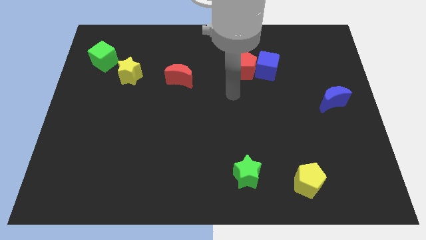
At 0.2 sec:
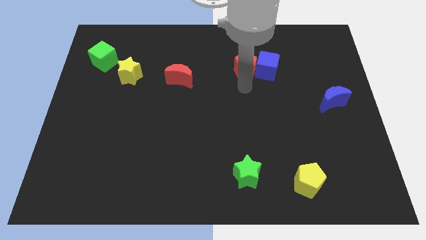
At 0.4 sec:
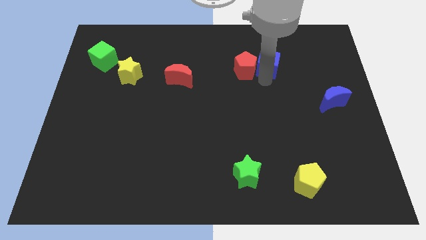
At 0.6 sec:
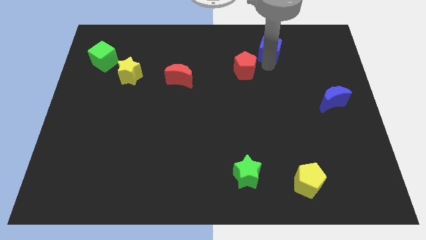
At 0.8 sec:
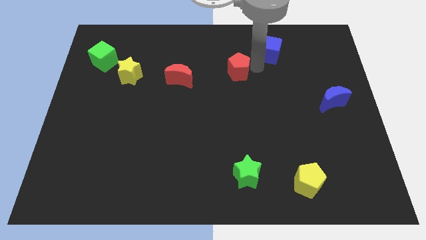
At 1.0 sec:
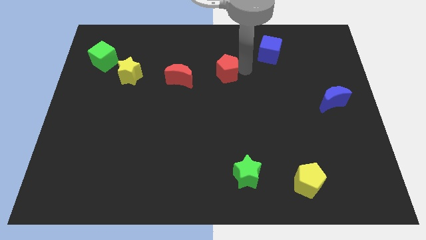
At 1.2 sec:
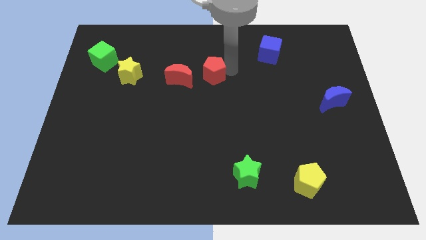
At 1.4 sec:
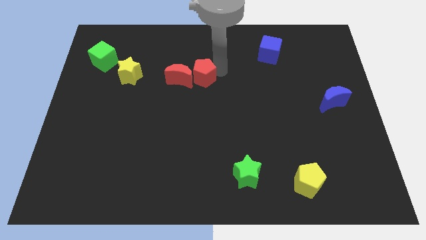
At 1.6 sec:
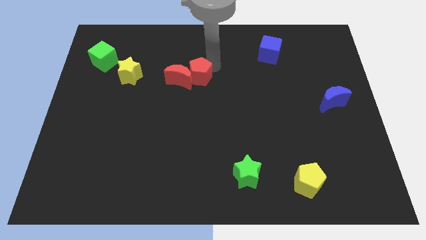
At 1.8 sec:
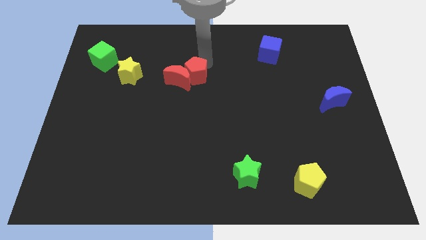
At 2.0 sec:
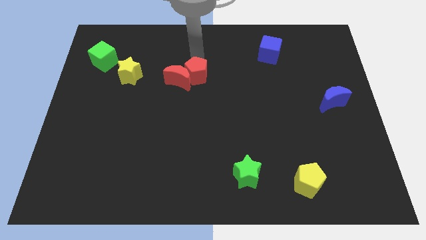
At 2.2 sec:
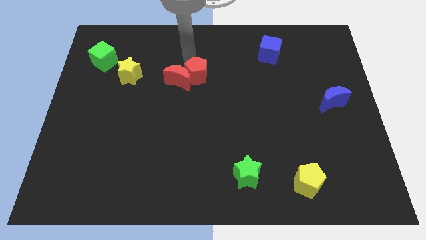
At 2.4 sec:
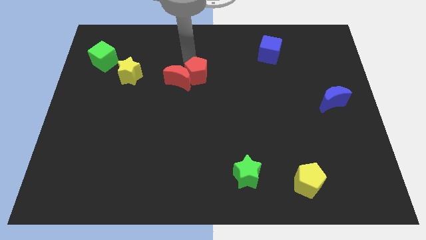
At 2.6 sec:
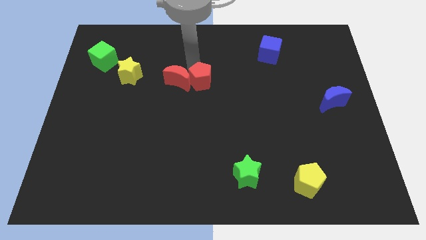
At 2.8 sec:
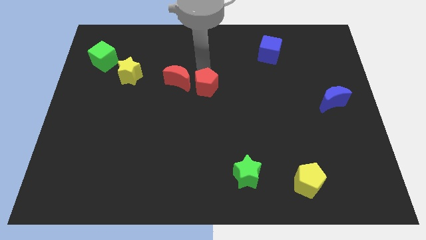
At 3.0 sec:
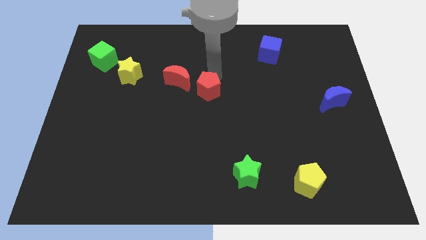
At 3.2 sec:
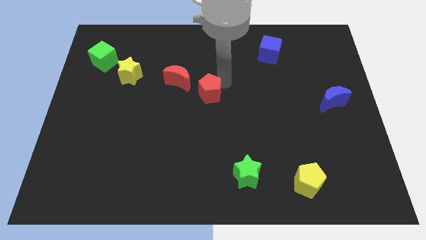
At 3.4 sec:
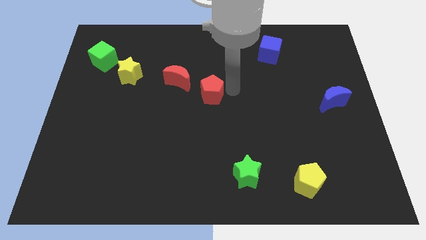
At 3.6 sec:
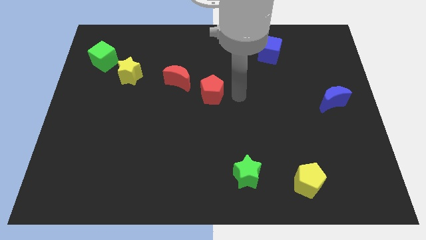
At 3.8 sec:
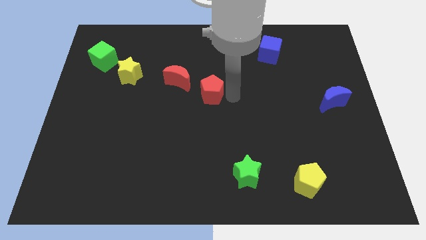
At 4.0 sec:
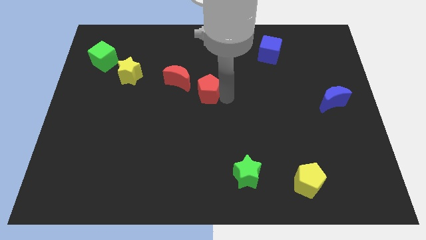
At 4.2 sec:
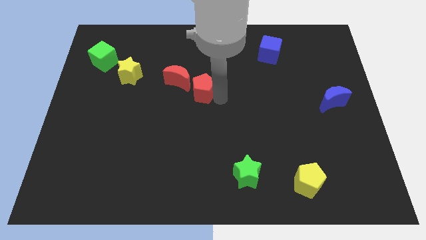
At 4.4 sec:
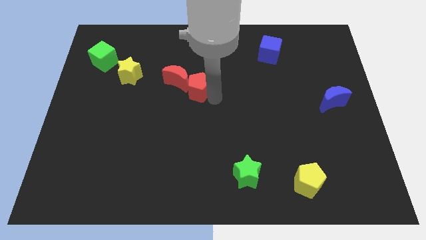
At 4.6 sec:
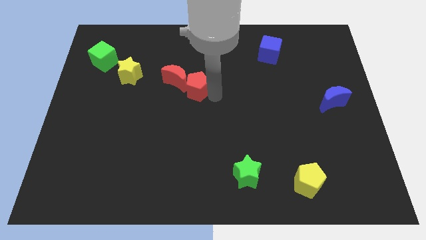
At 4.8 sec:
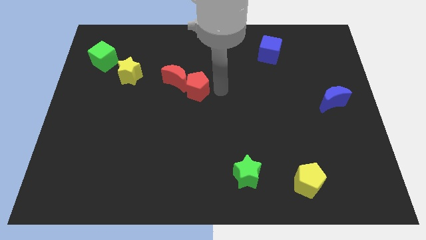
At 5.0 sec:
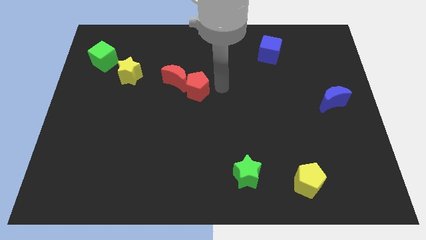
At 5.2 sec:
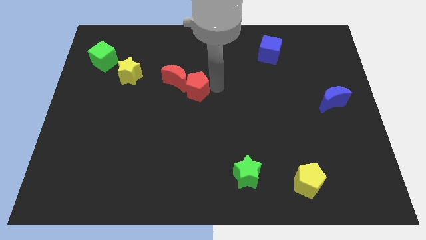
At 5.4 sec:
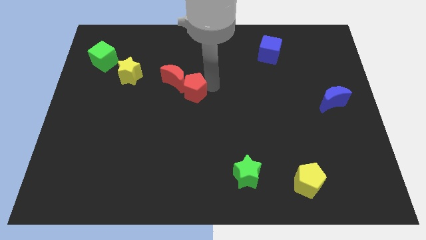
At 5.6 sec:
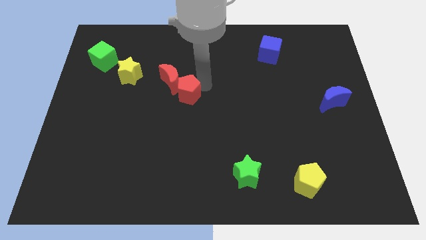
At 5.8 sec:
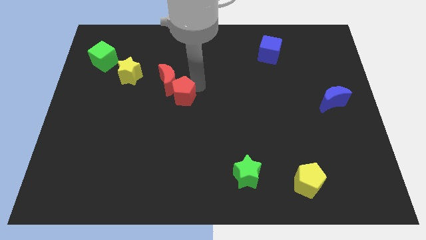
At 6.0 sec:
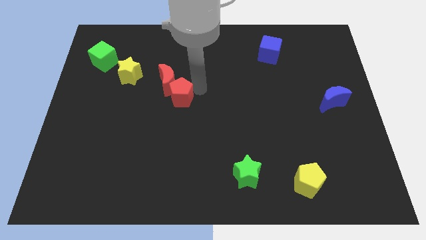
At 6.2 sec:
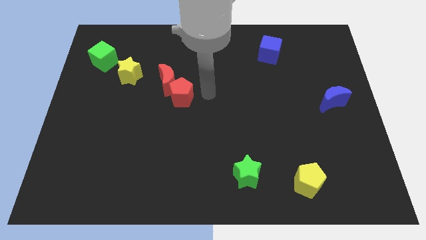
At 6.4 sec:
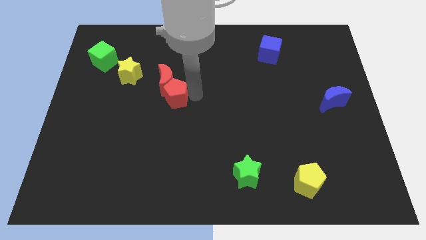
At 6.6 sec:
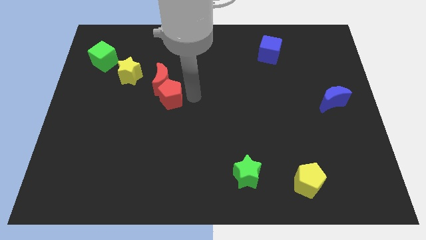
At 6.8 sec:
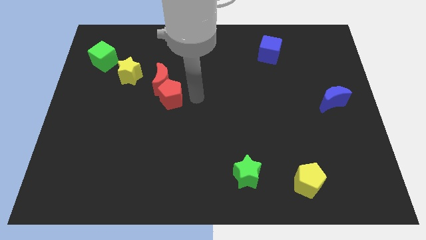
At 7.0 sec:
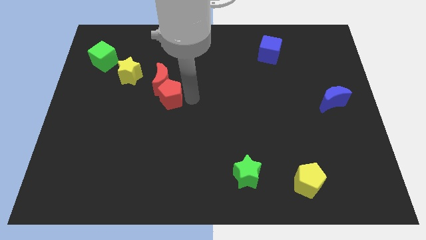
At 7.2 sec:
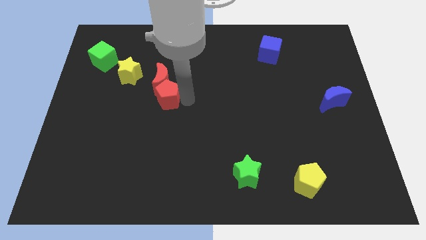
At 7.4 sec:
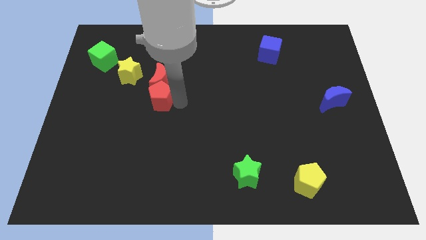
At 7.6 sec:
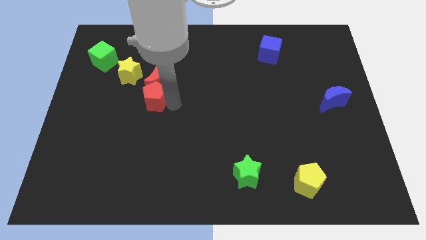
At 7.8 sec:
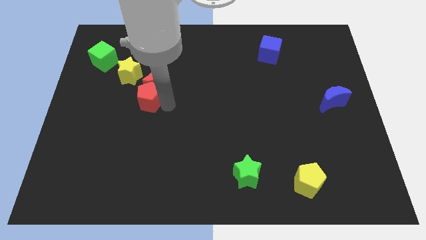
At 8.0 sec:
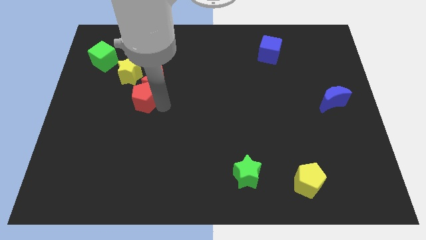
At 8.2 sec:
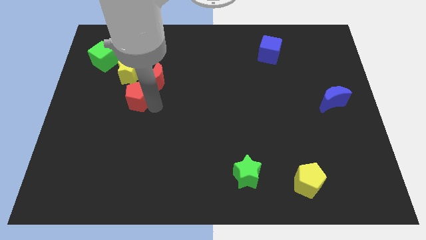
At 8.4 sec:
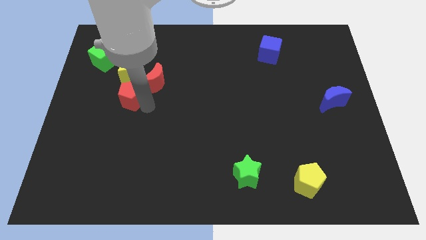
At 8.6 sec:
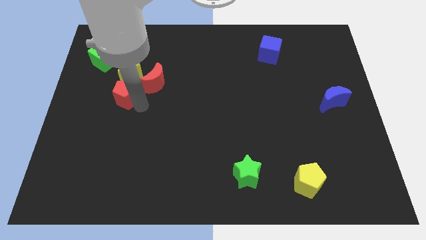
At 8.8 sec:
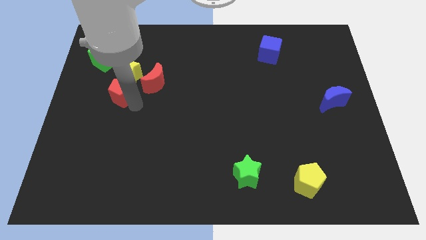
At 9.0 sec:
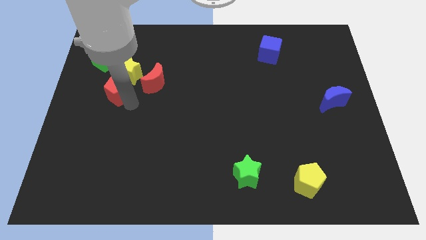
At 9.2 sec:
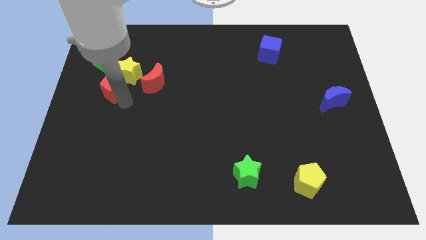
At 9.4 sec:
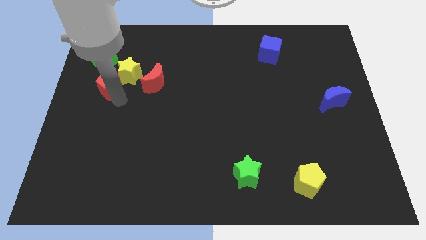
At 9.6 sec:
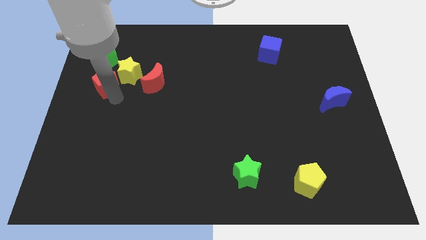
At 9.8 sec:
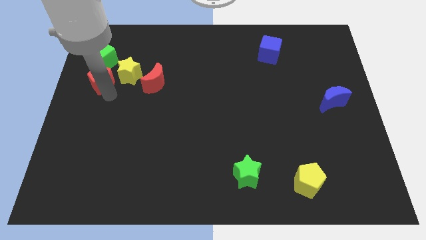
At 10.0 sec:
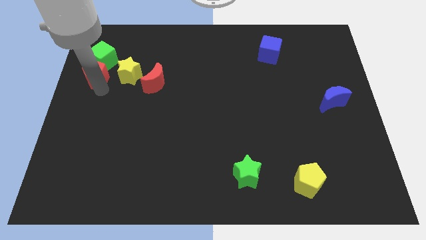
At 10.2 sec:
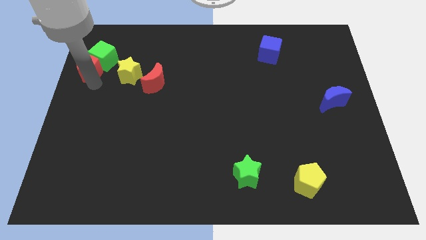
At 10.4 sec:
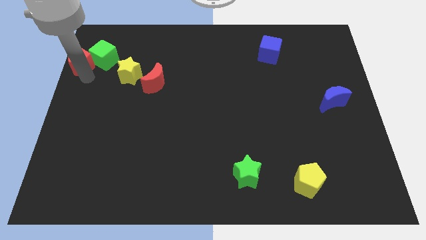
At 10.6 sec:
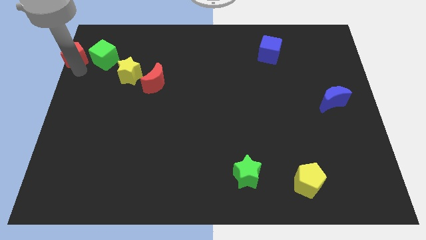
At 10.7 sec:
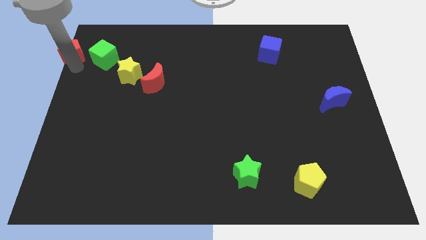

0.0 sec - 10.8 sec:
put the red pentagon to the top left corner

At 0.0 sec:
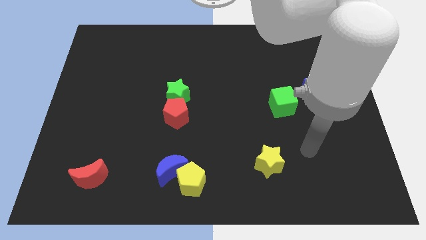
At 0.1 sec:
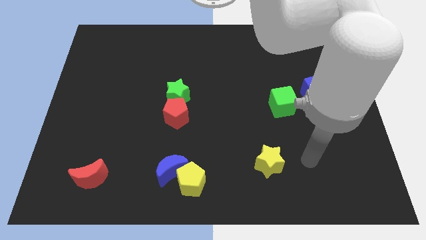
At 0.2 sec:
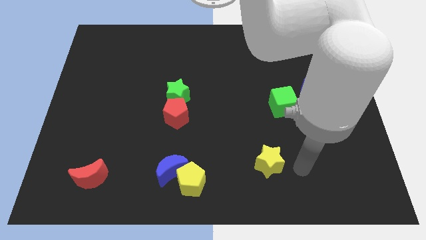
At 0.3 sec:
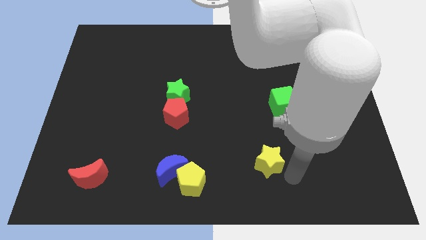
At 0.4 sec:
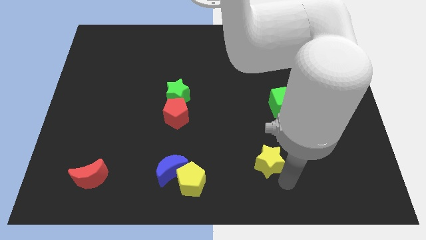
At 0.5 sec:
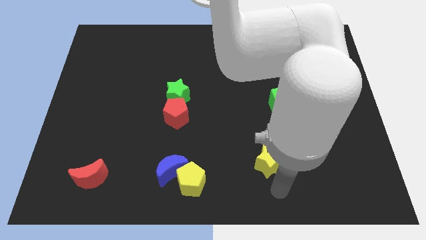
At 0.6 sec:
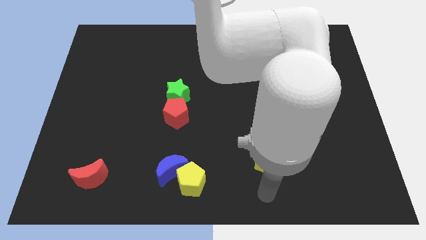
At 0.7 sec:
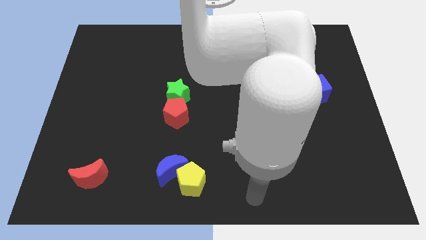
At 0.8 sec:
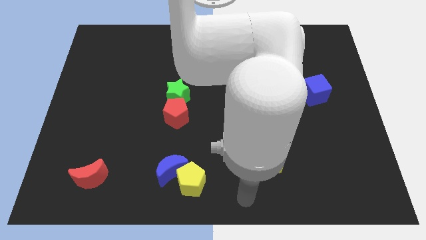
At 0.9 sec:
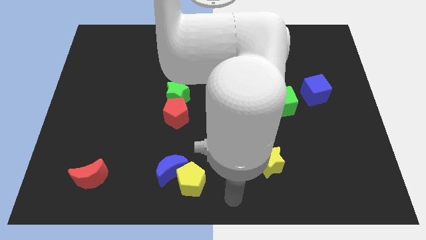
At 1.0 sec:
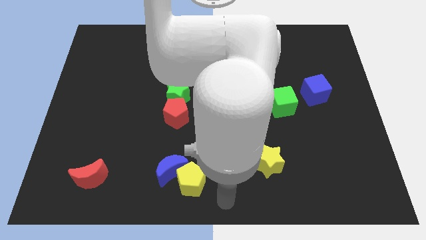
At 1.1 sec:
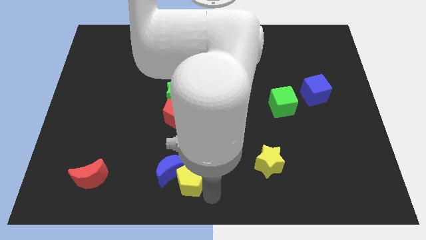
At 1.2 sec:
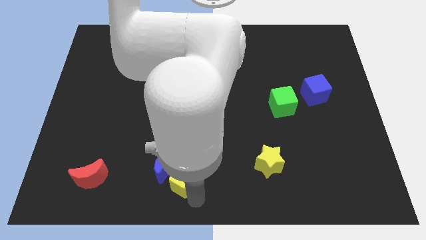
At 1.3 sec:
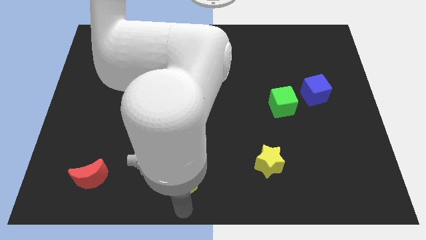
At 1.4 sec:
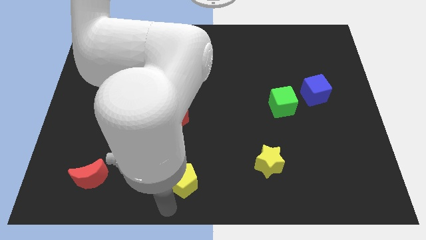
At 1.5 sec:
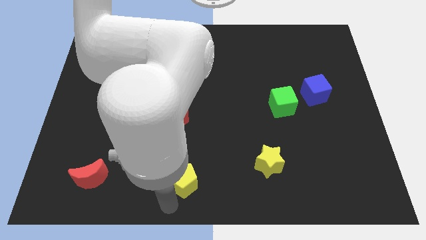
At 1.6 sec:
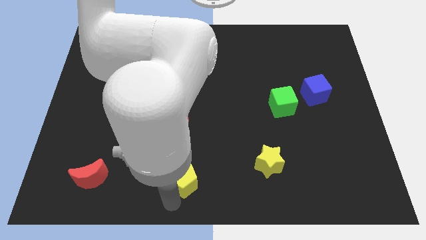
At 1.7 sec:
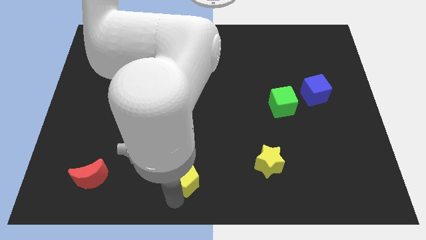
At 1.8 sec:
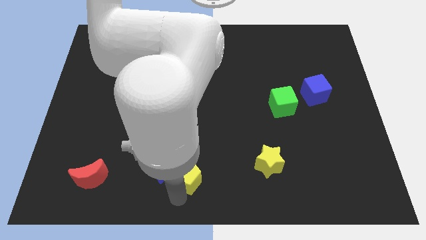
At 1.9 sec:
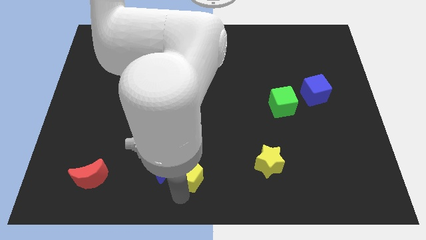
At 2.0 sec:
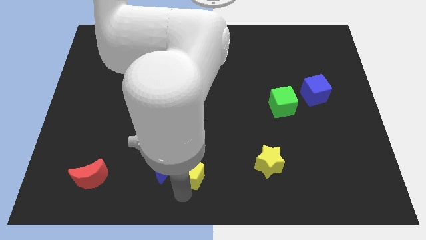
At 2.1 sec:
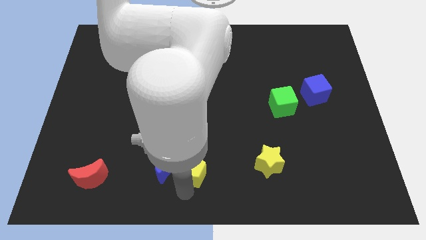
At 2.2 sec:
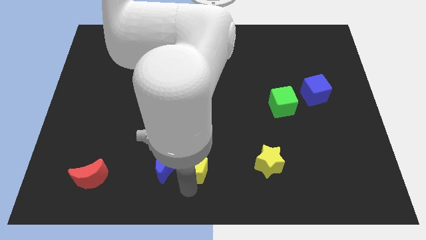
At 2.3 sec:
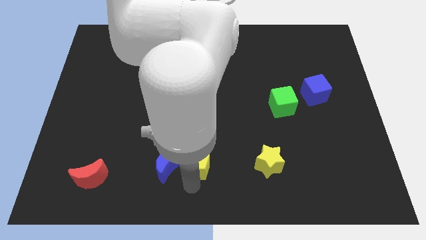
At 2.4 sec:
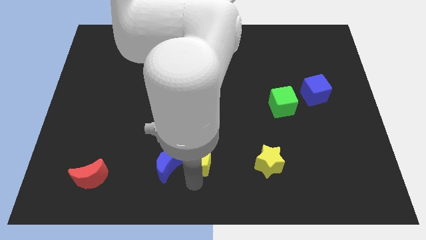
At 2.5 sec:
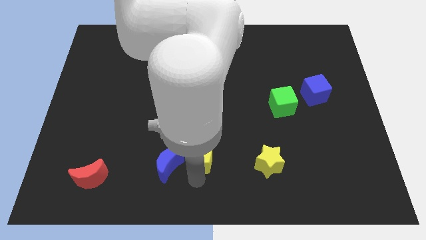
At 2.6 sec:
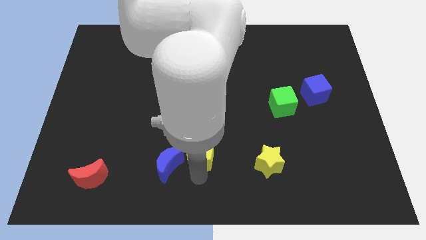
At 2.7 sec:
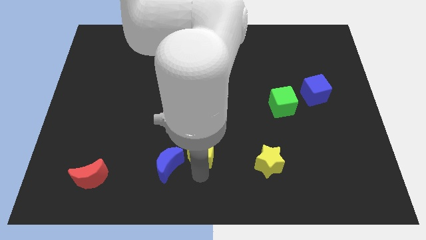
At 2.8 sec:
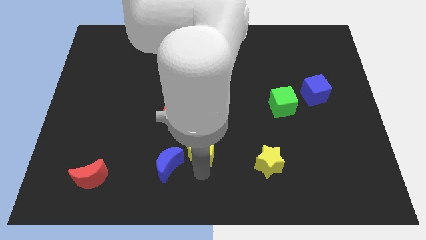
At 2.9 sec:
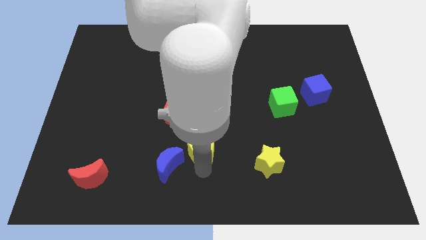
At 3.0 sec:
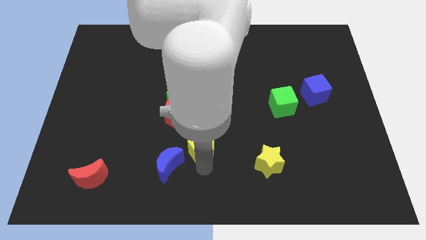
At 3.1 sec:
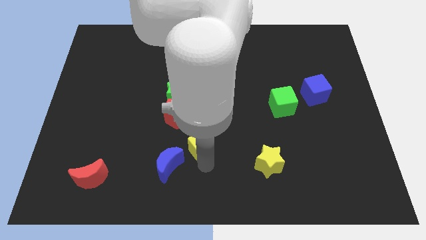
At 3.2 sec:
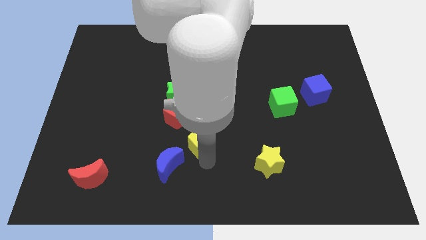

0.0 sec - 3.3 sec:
move the yellow pentagon to the middle
